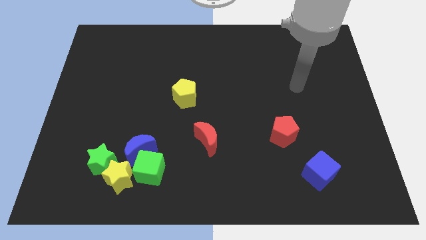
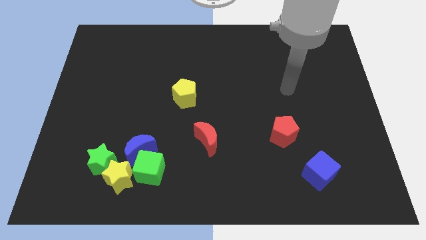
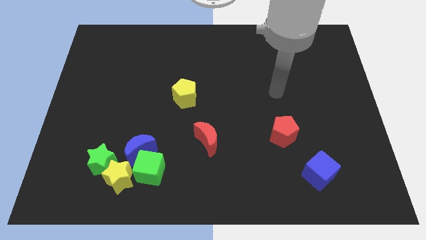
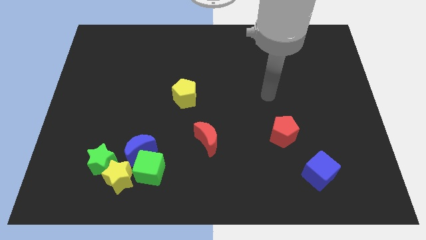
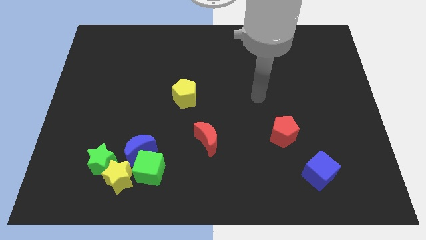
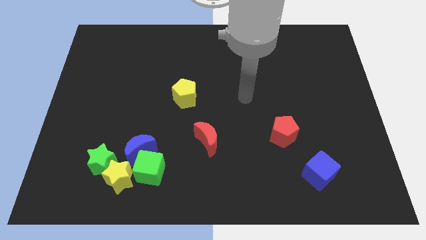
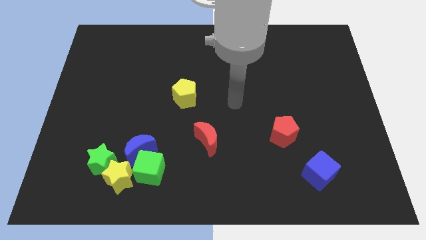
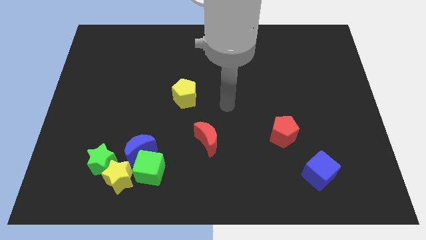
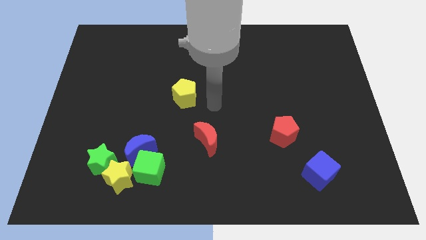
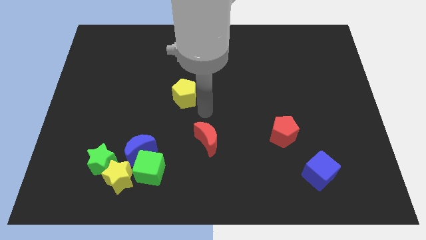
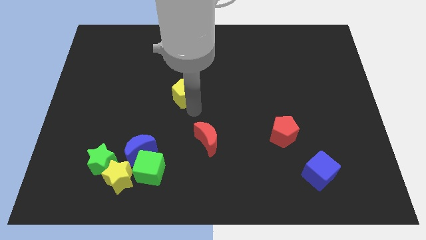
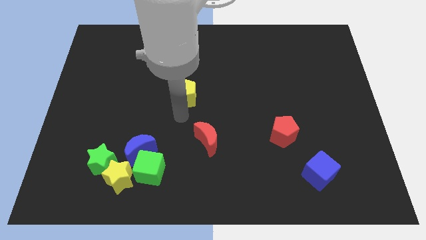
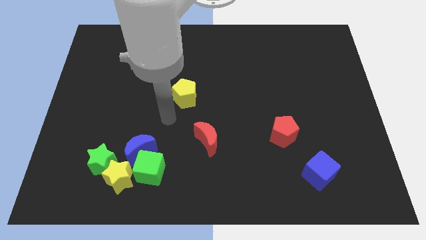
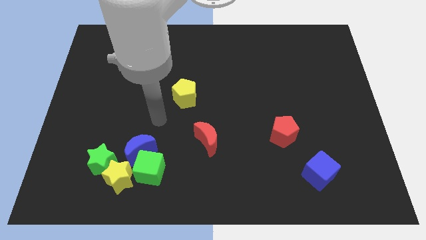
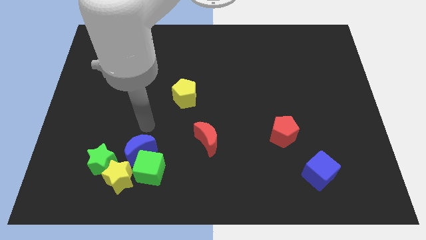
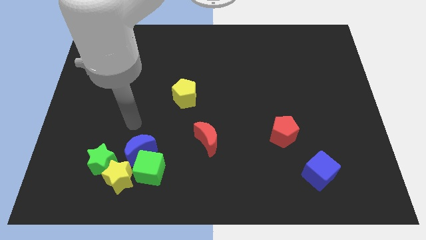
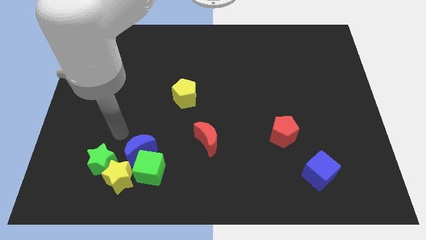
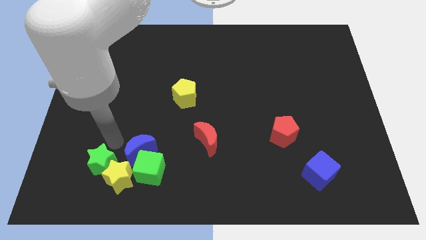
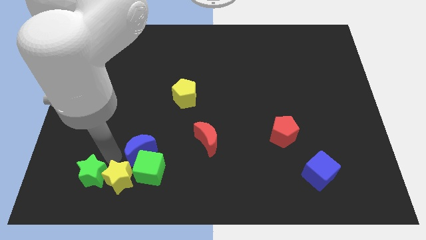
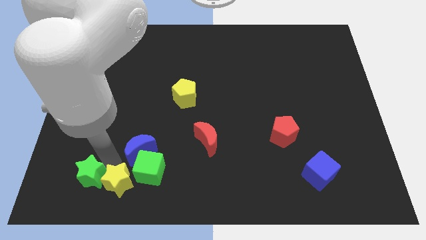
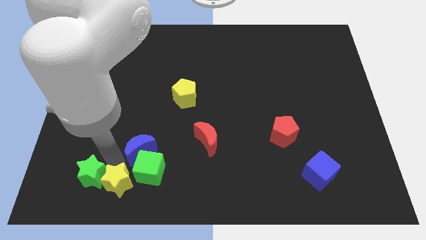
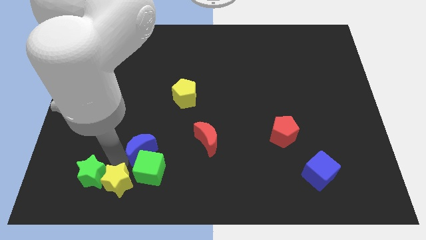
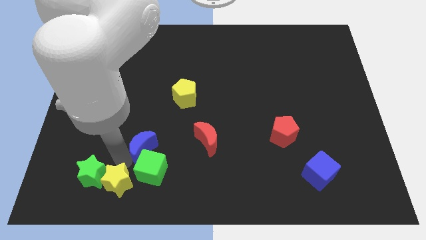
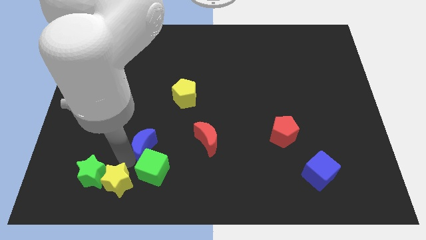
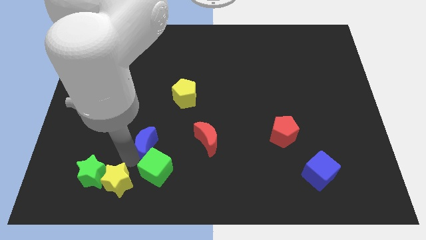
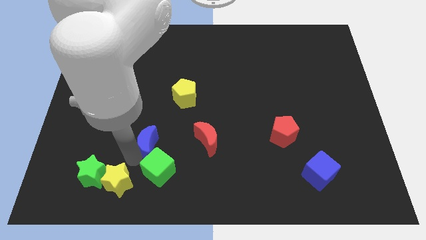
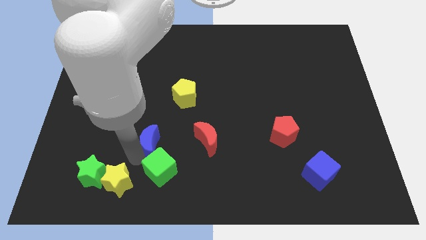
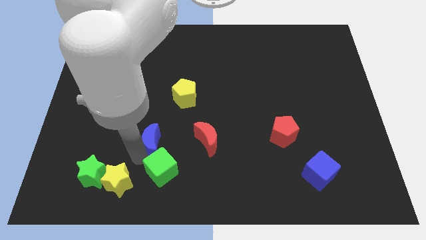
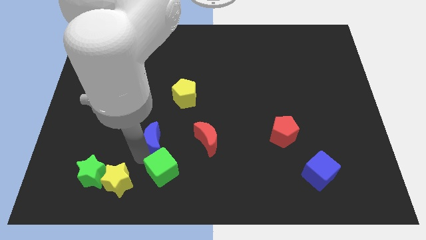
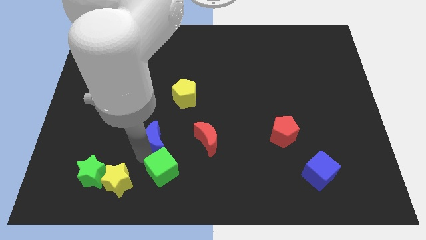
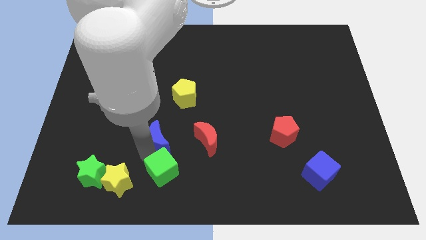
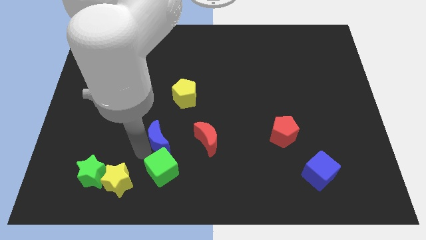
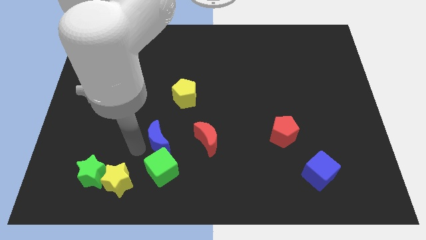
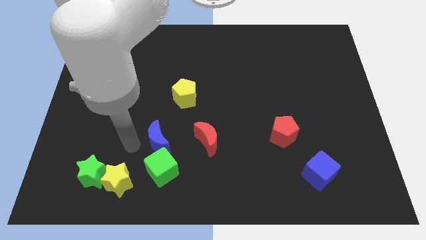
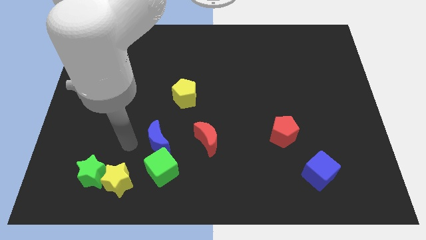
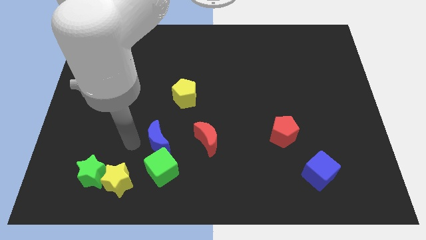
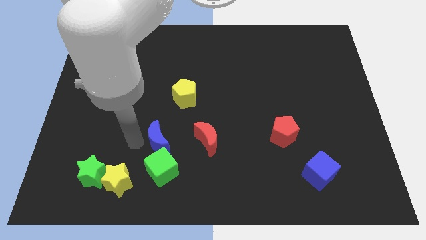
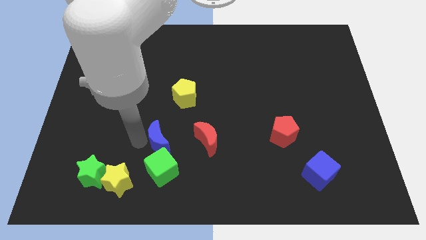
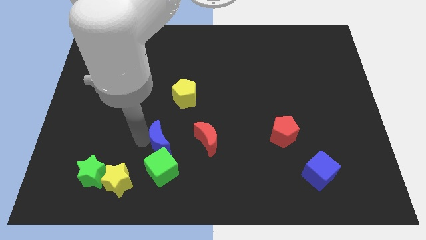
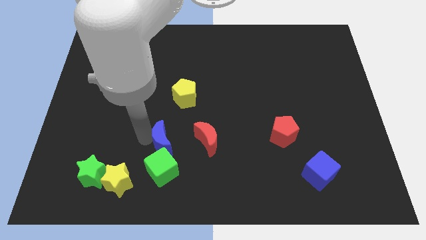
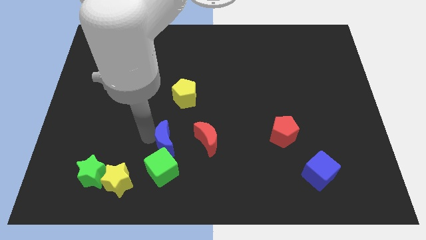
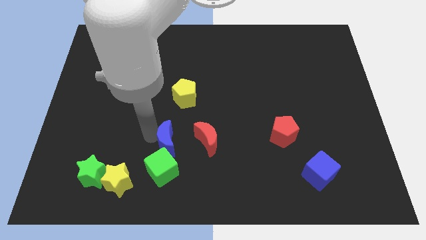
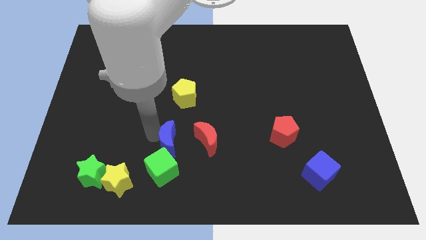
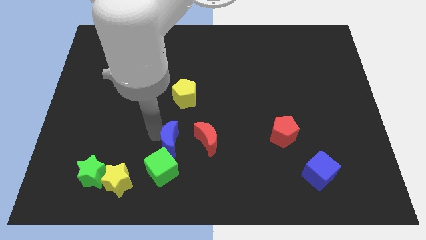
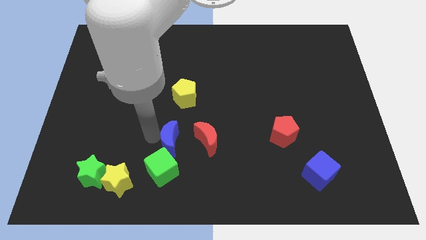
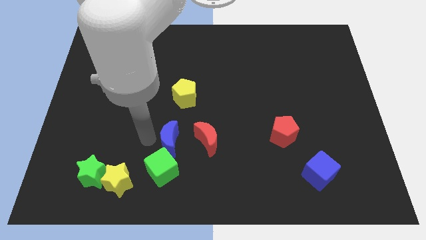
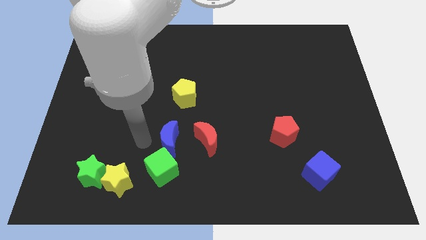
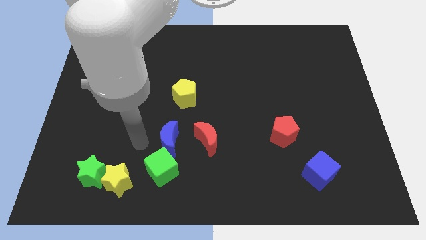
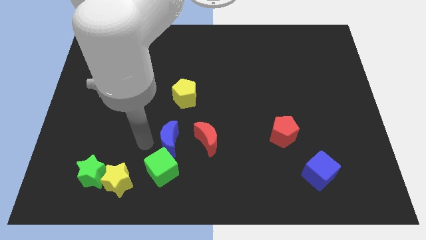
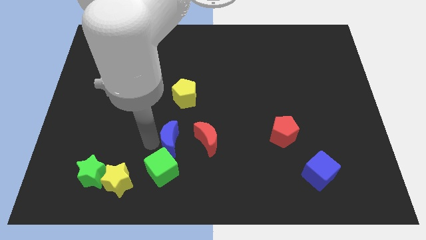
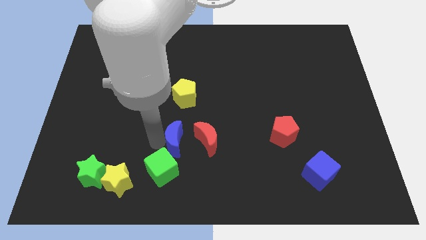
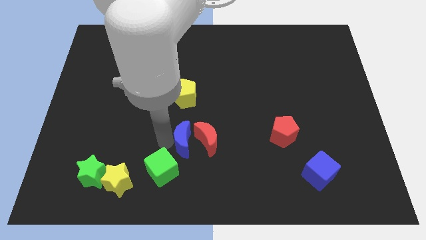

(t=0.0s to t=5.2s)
move the blue moon close to the red moon

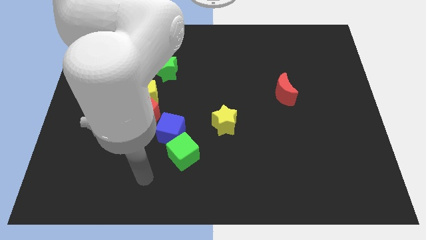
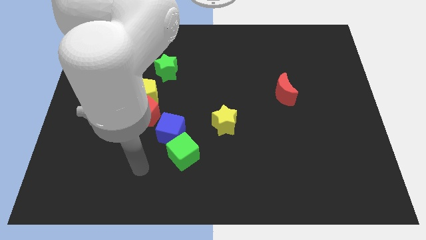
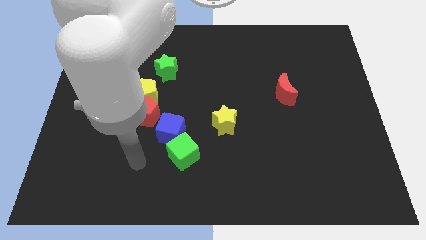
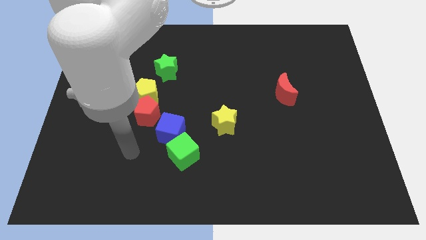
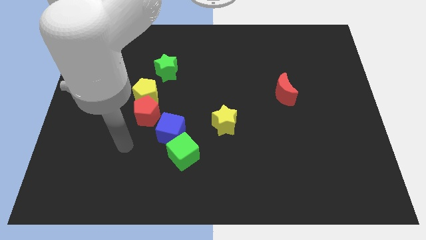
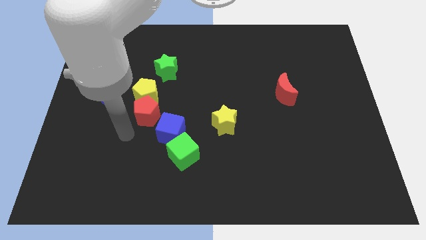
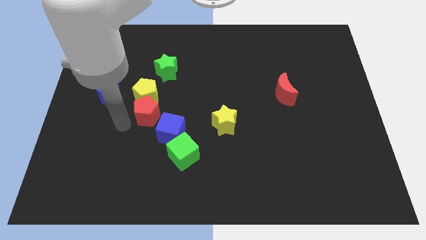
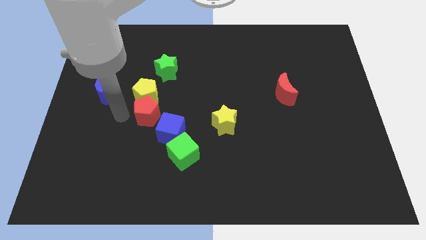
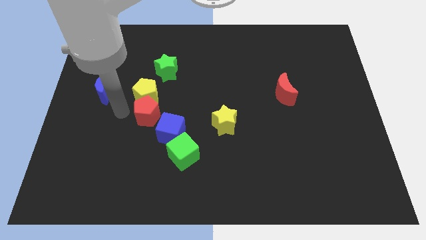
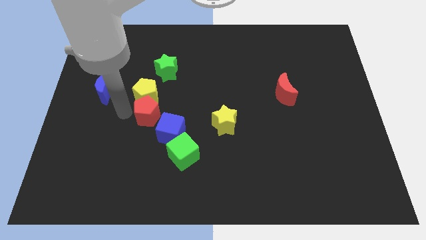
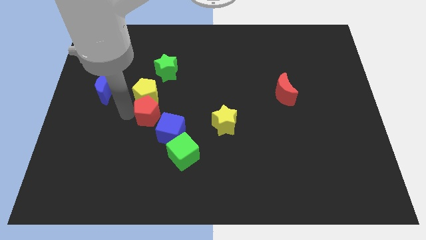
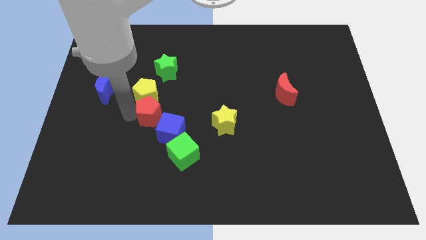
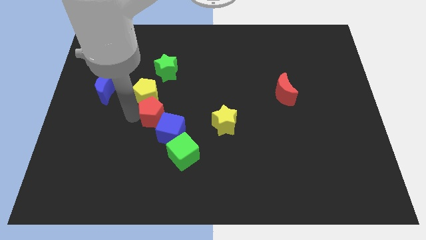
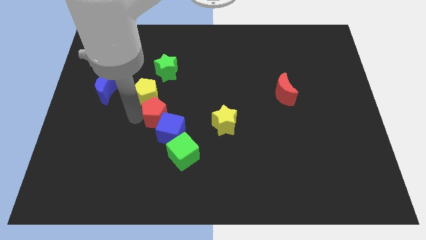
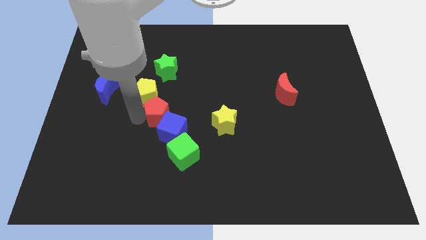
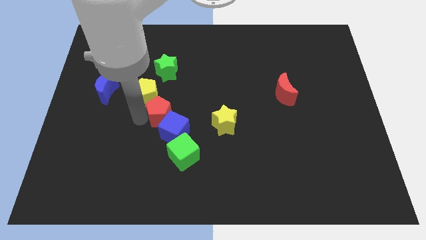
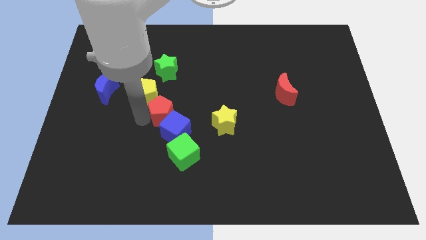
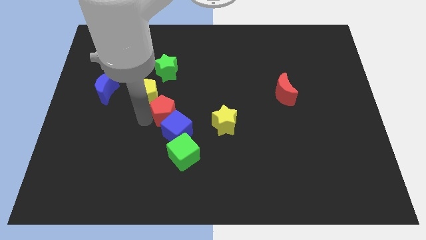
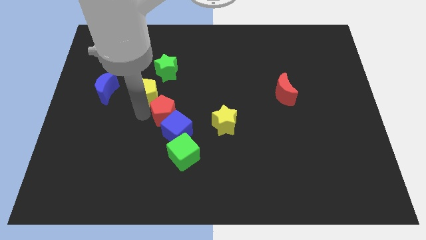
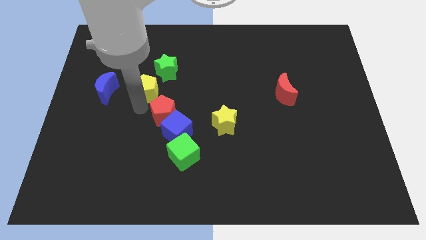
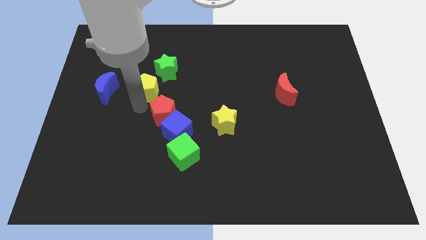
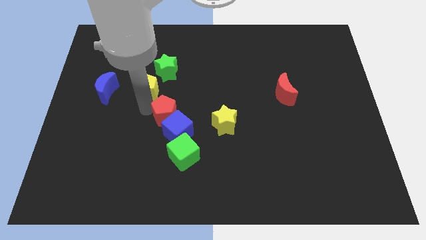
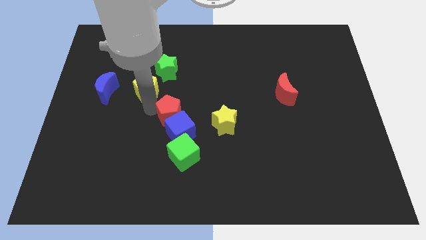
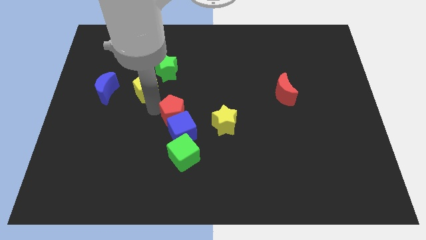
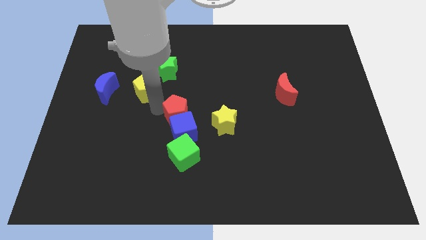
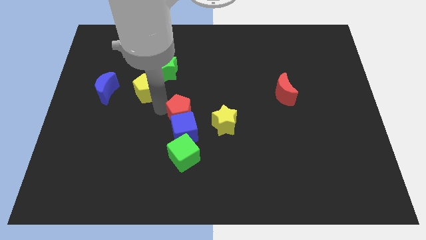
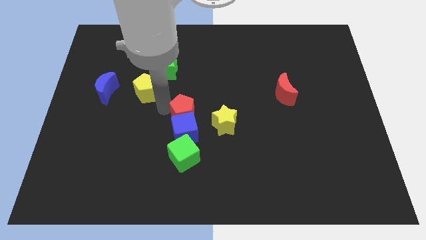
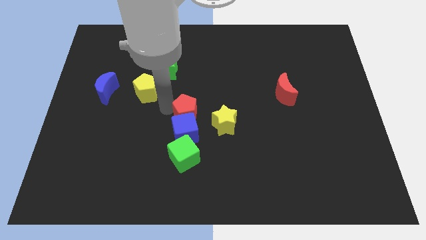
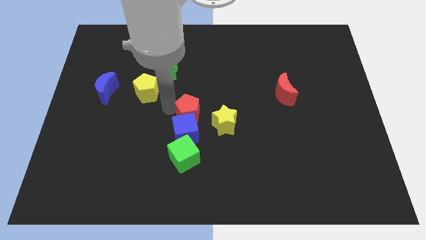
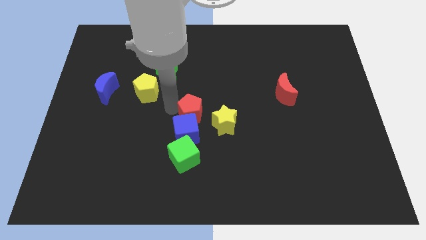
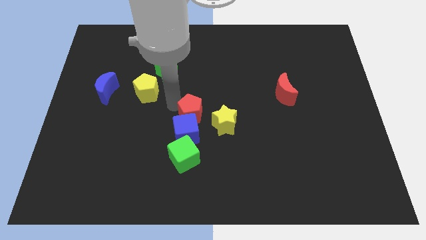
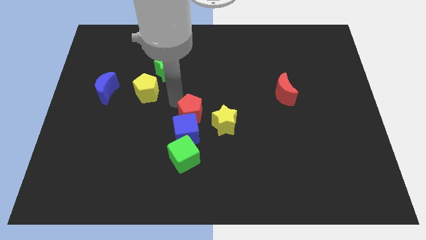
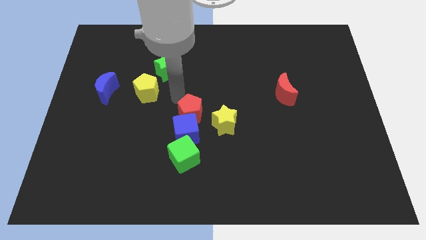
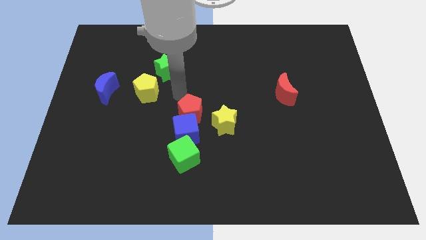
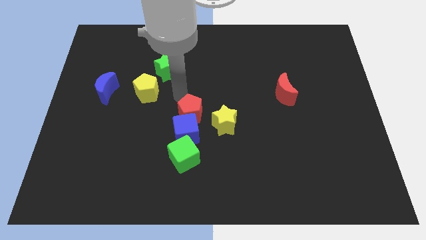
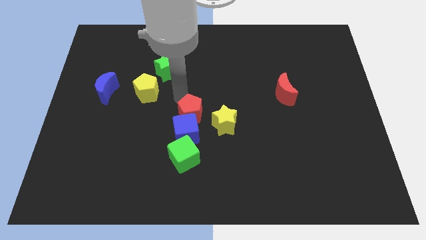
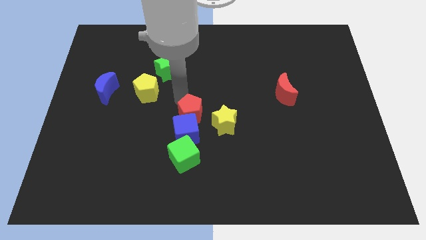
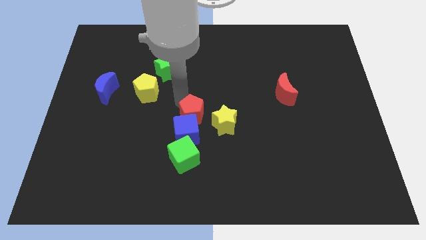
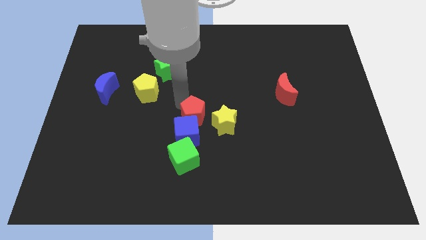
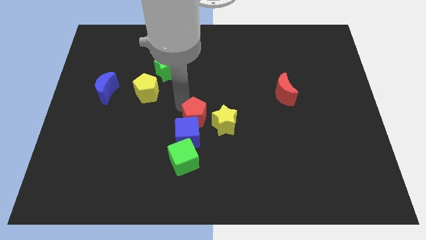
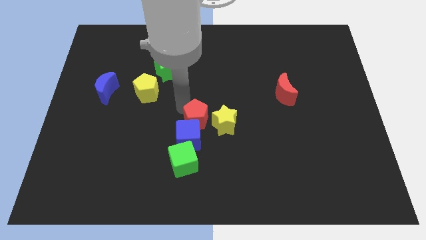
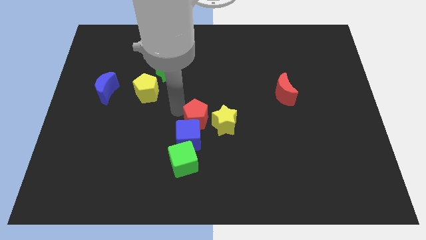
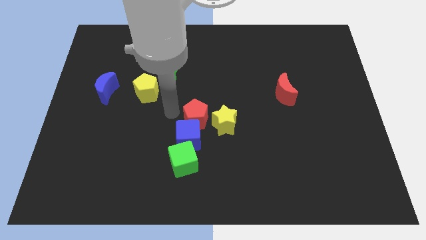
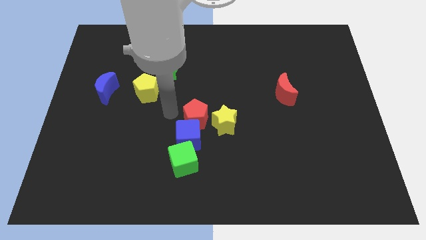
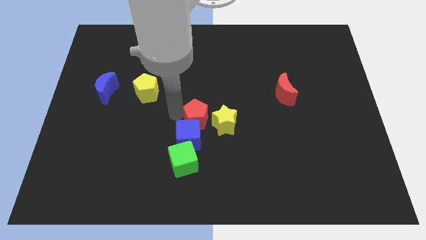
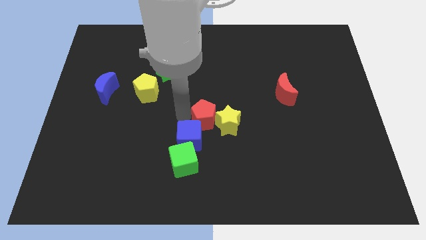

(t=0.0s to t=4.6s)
move the red pentagon towards the yellow star
